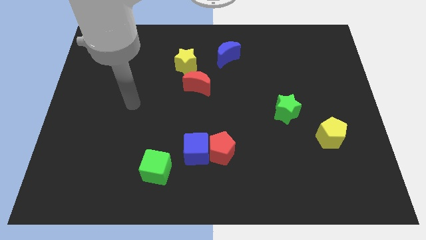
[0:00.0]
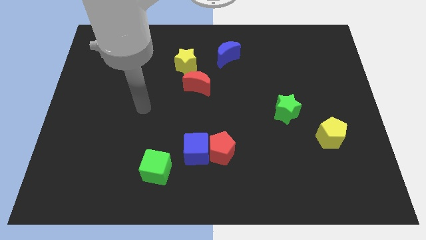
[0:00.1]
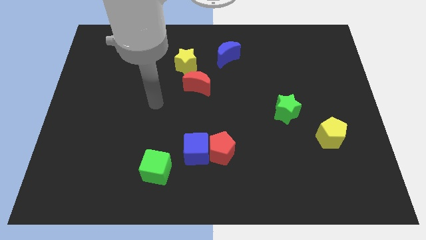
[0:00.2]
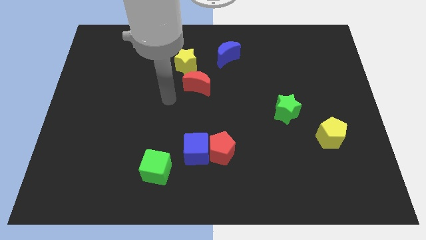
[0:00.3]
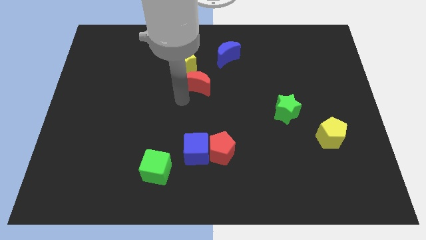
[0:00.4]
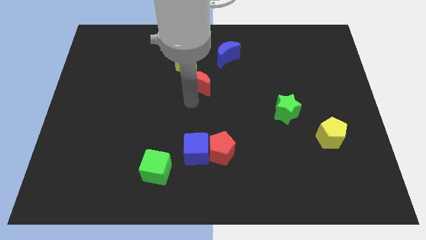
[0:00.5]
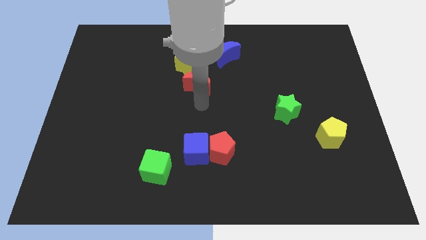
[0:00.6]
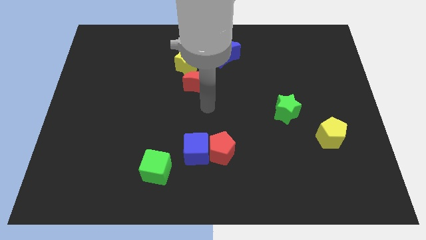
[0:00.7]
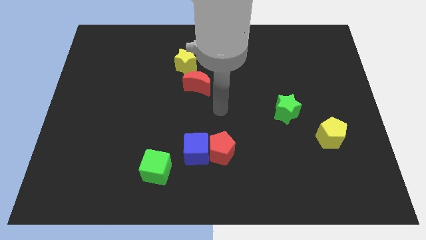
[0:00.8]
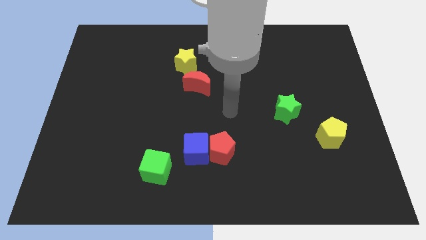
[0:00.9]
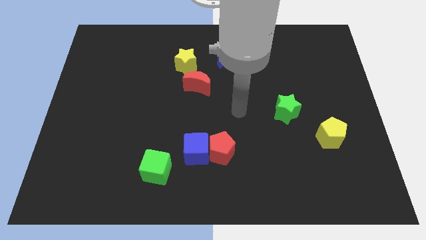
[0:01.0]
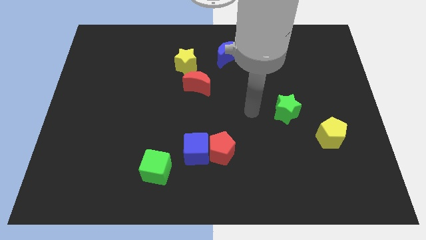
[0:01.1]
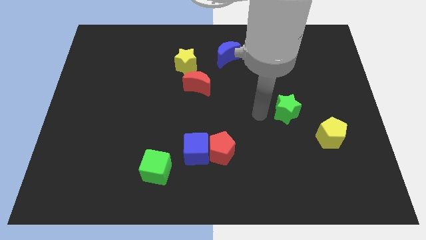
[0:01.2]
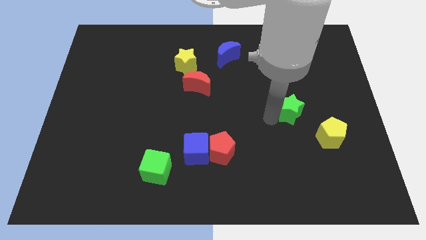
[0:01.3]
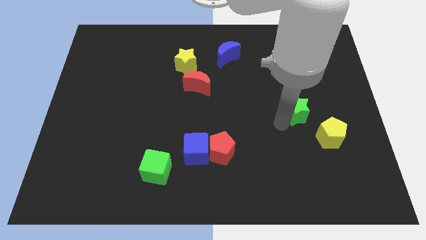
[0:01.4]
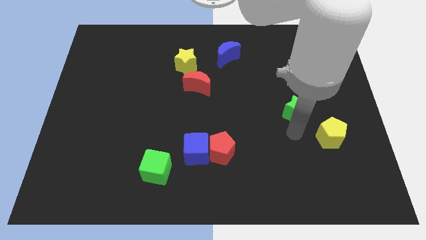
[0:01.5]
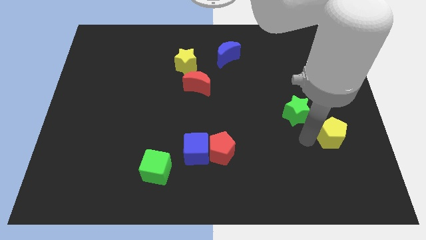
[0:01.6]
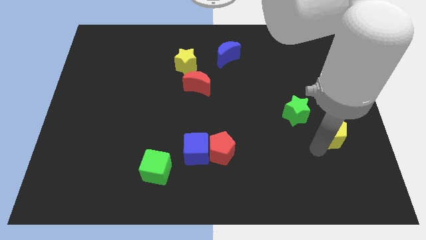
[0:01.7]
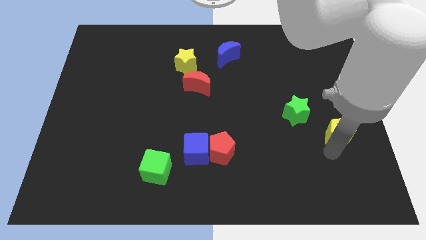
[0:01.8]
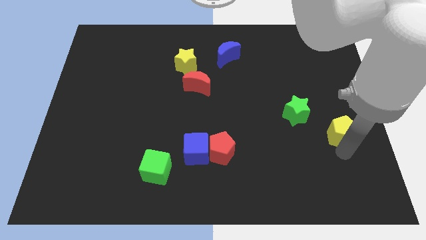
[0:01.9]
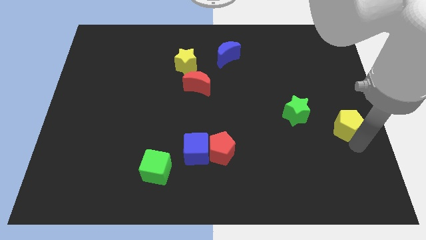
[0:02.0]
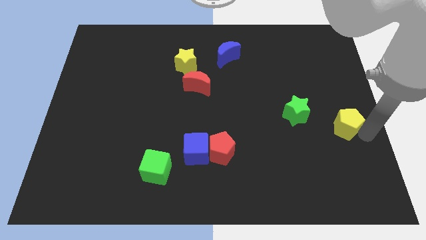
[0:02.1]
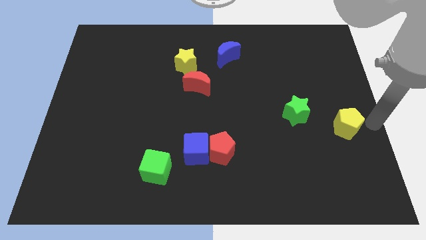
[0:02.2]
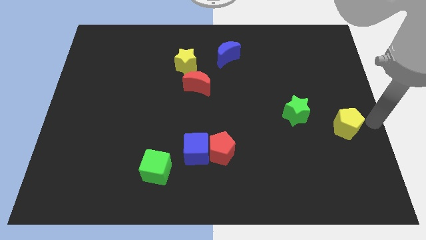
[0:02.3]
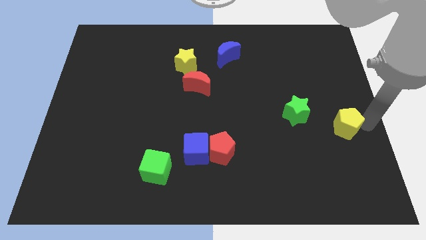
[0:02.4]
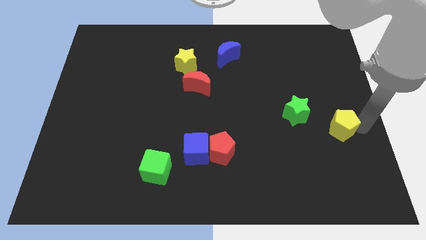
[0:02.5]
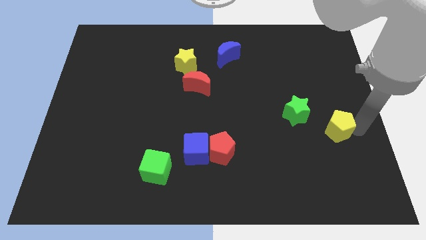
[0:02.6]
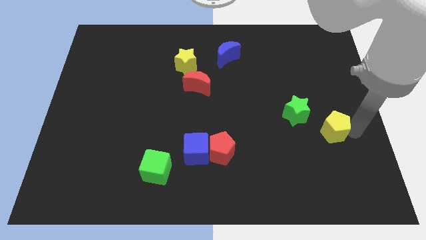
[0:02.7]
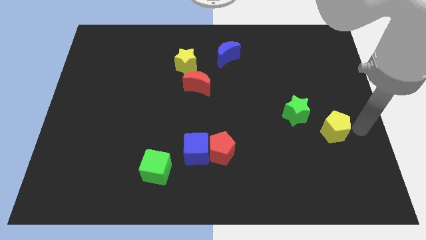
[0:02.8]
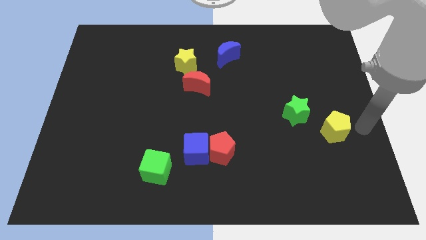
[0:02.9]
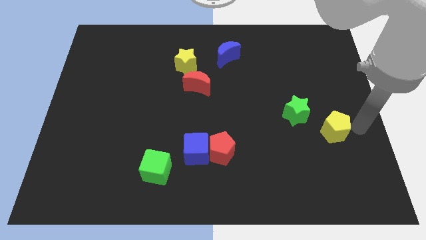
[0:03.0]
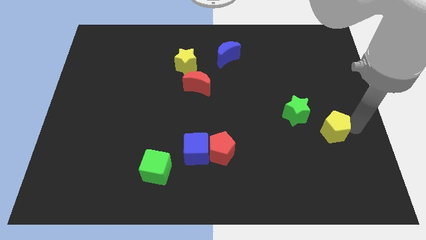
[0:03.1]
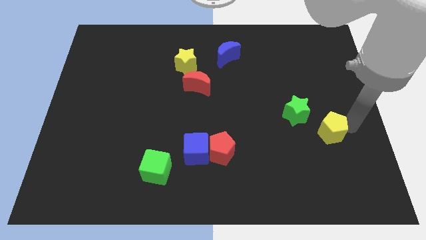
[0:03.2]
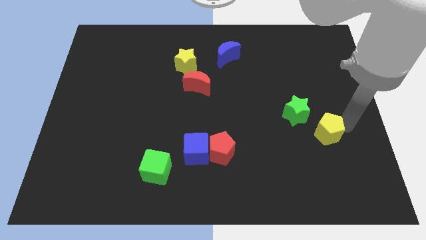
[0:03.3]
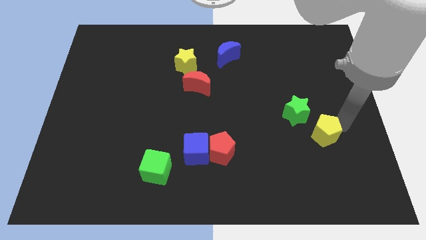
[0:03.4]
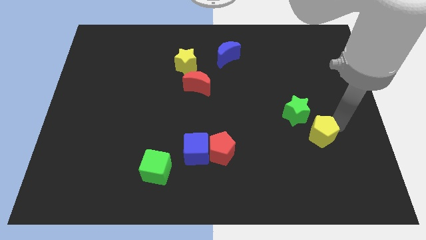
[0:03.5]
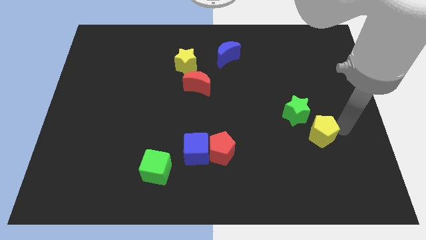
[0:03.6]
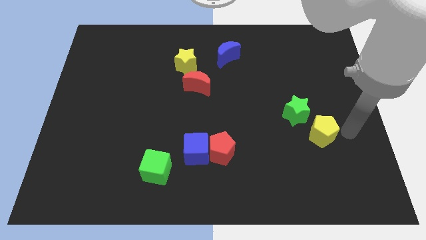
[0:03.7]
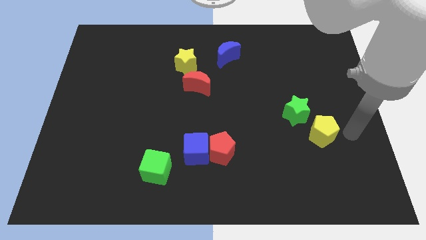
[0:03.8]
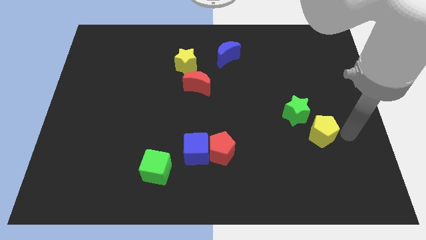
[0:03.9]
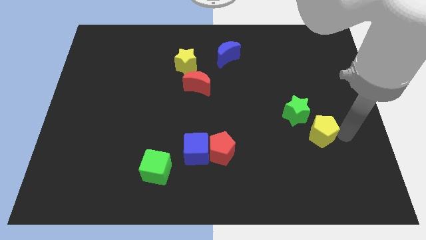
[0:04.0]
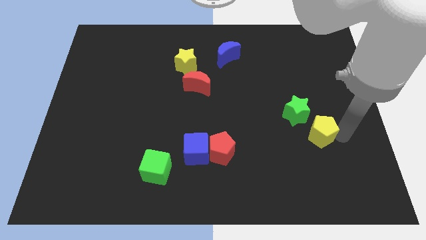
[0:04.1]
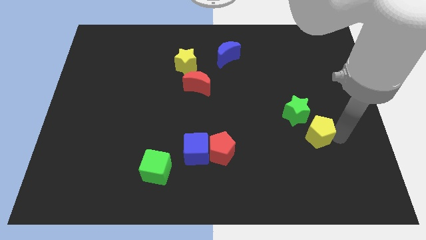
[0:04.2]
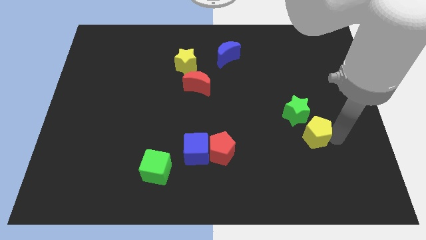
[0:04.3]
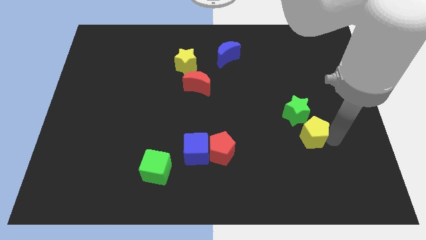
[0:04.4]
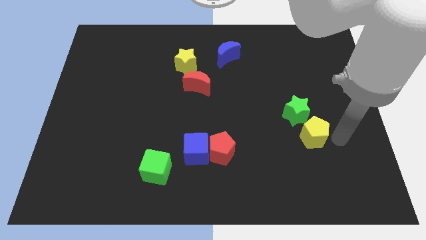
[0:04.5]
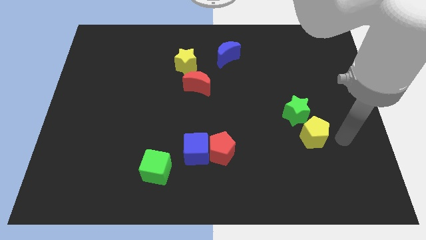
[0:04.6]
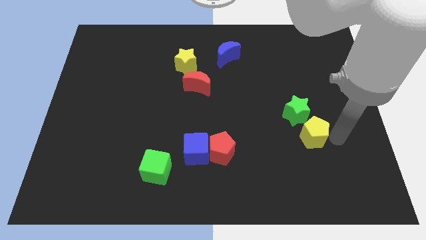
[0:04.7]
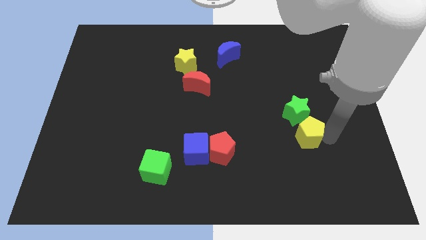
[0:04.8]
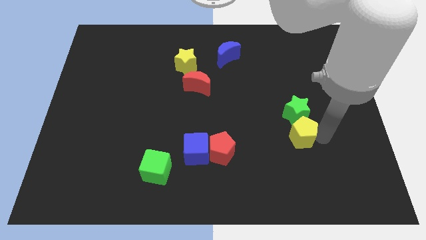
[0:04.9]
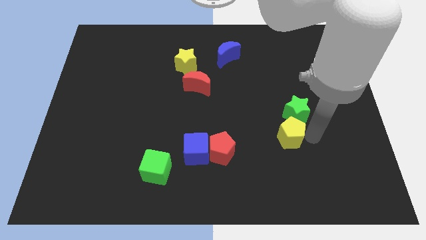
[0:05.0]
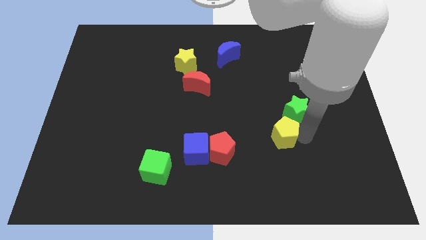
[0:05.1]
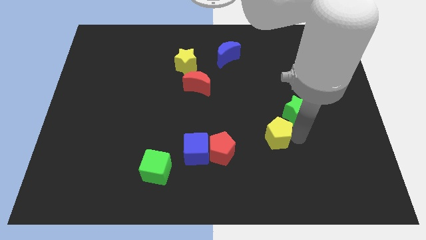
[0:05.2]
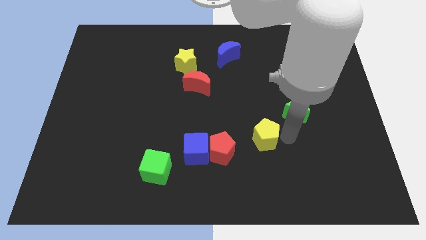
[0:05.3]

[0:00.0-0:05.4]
push the yellow pentagon to the top right of the red pentagon

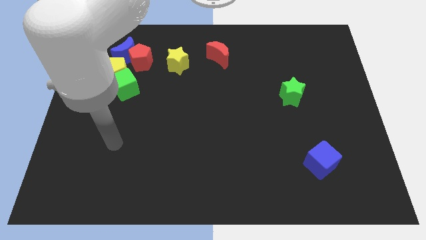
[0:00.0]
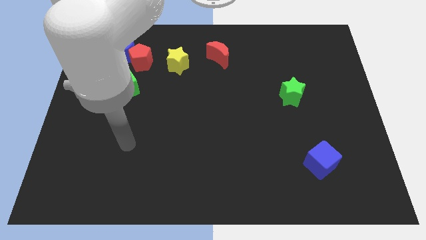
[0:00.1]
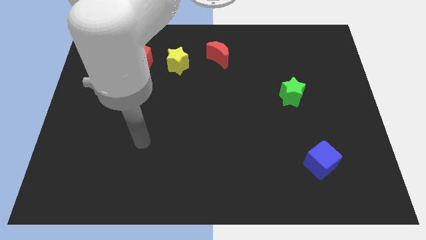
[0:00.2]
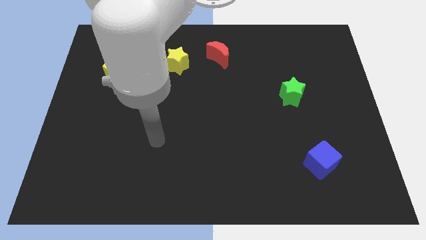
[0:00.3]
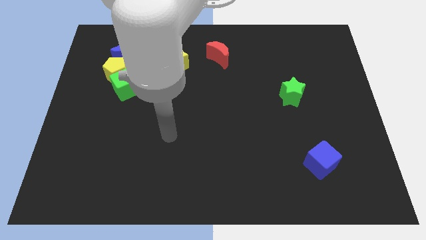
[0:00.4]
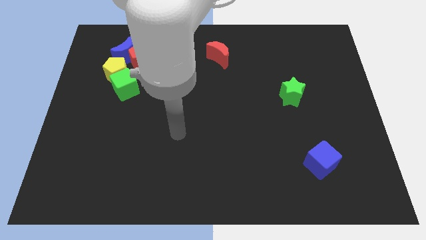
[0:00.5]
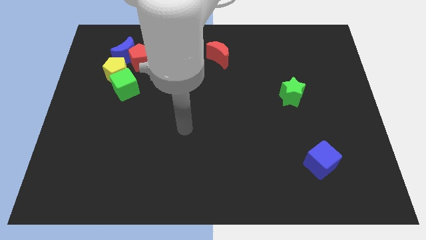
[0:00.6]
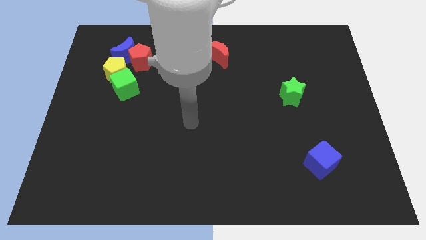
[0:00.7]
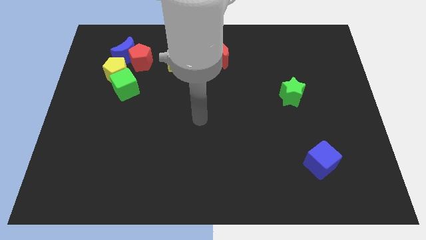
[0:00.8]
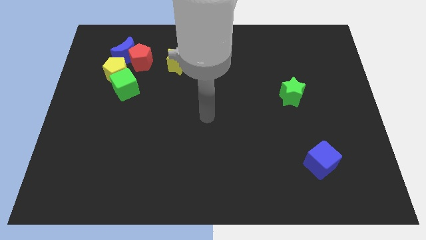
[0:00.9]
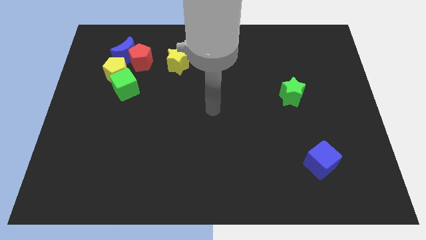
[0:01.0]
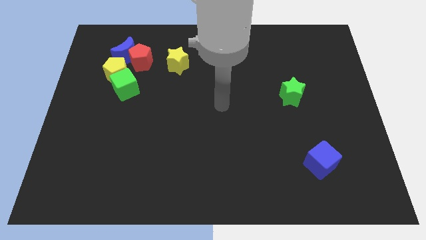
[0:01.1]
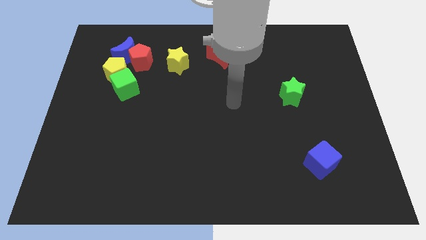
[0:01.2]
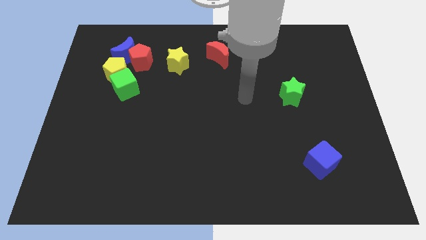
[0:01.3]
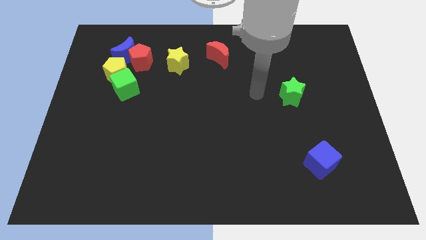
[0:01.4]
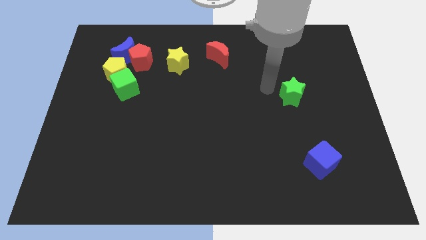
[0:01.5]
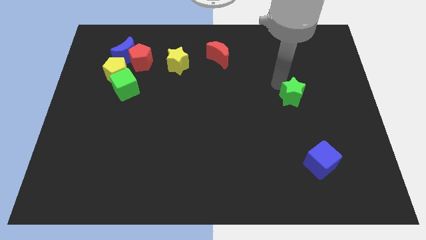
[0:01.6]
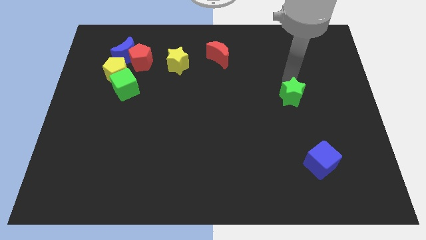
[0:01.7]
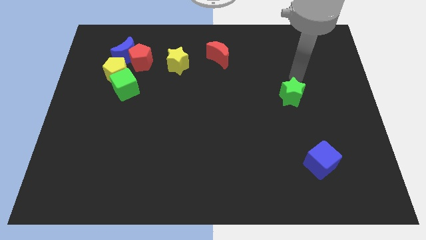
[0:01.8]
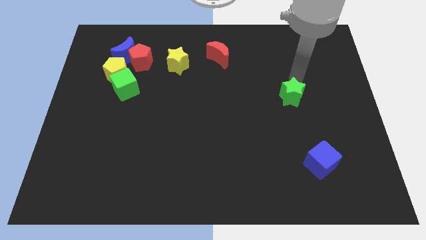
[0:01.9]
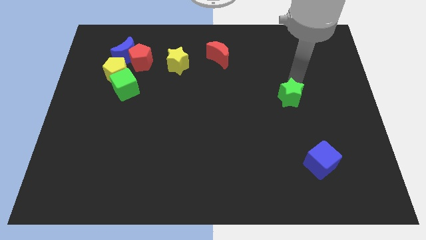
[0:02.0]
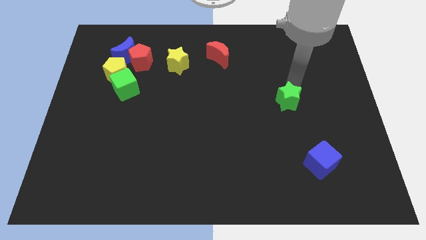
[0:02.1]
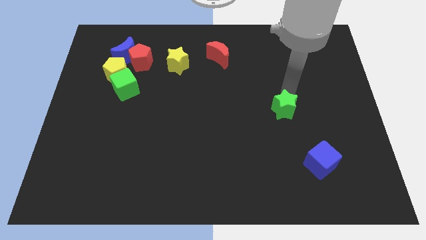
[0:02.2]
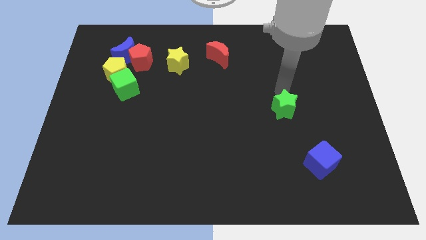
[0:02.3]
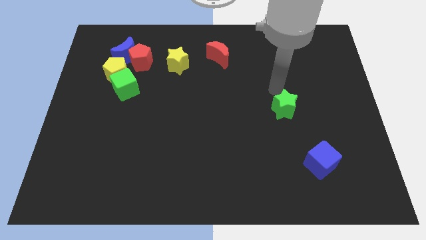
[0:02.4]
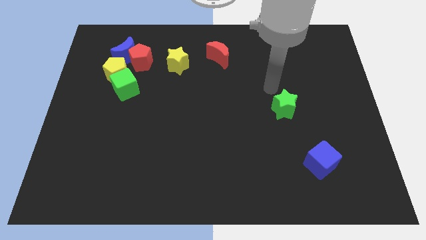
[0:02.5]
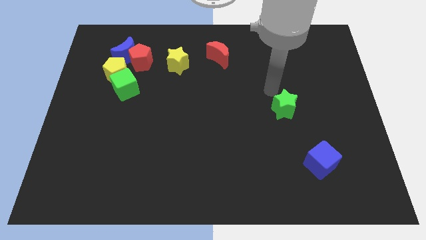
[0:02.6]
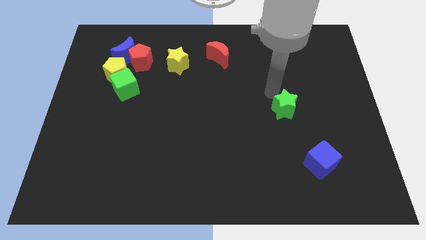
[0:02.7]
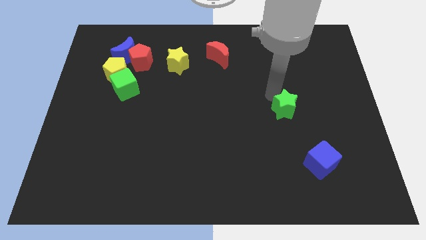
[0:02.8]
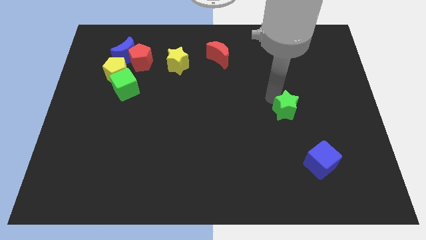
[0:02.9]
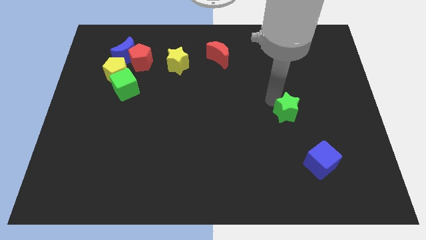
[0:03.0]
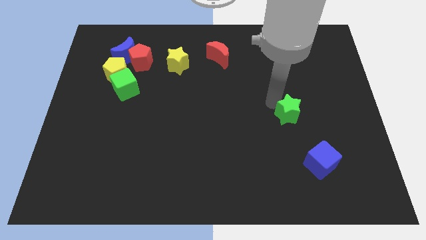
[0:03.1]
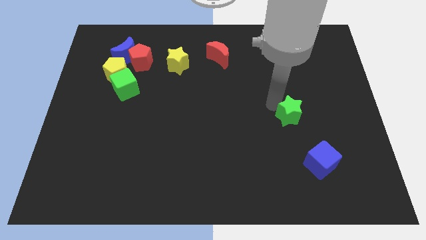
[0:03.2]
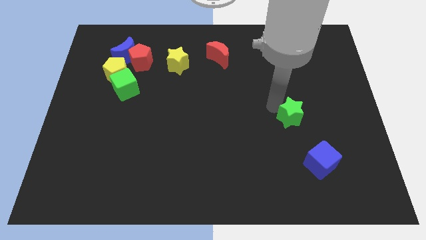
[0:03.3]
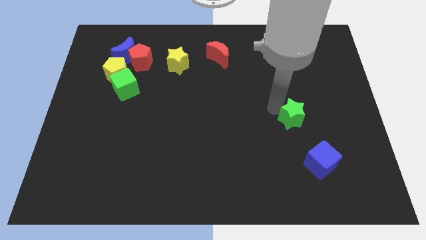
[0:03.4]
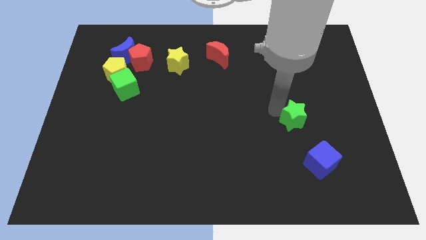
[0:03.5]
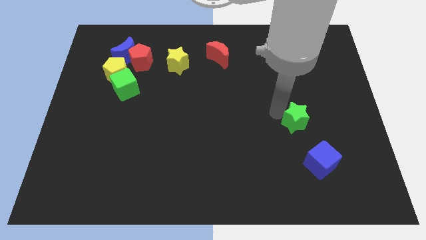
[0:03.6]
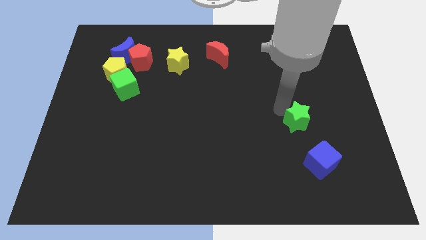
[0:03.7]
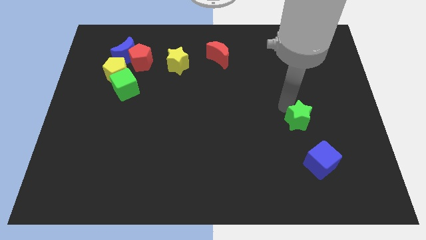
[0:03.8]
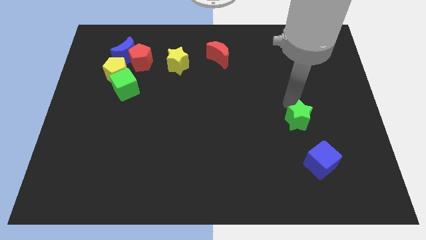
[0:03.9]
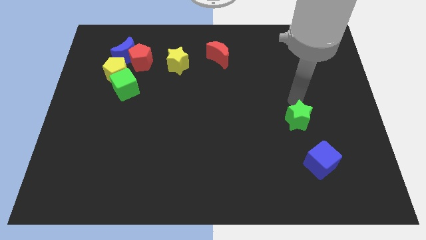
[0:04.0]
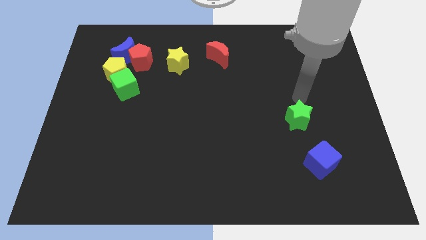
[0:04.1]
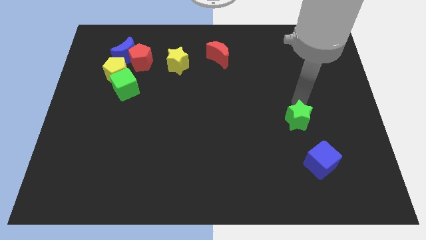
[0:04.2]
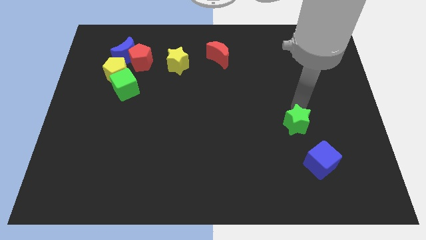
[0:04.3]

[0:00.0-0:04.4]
put the green star diagonally up and to the left of the blue cube
